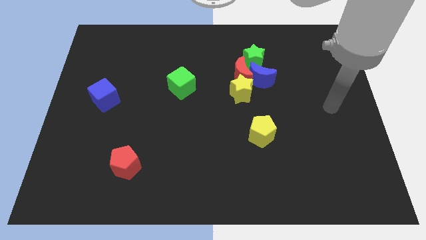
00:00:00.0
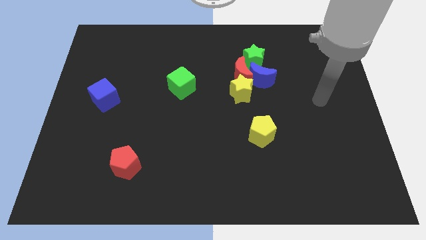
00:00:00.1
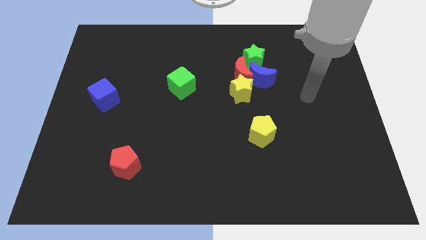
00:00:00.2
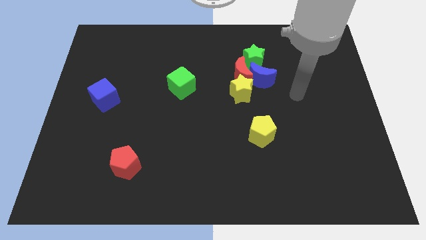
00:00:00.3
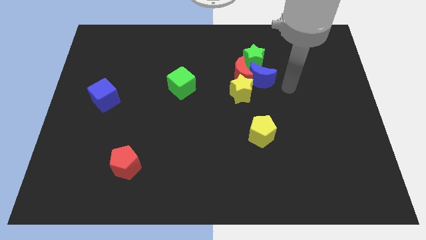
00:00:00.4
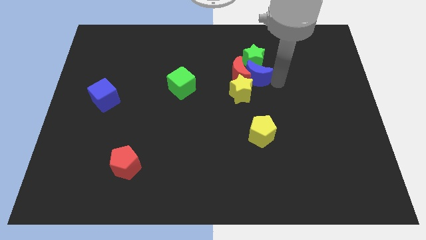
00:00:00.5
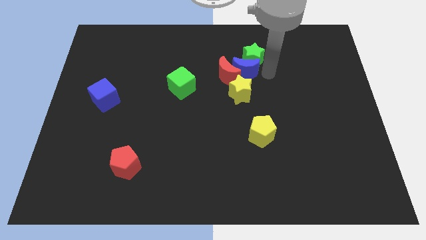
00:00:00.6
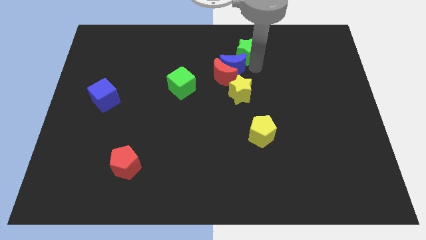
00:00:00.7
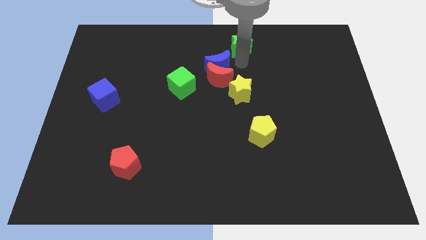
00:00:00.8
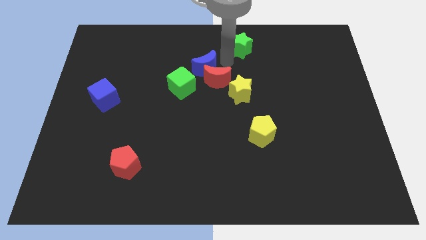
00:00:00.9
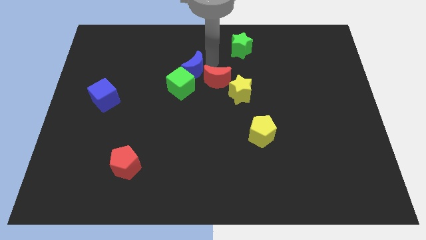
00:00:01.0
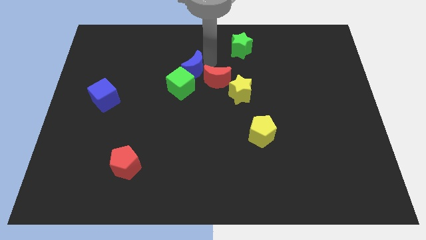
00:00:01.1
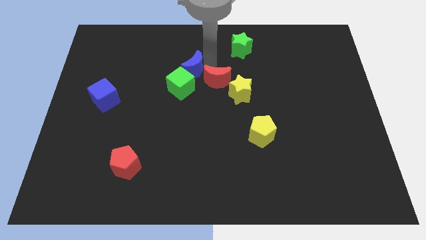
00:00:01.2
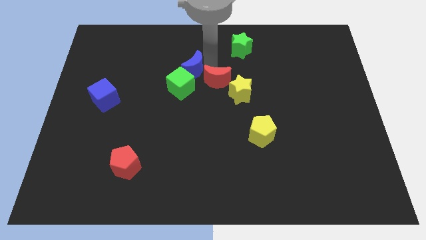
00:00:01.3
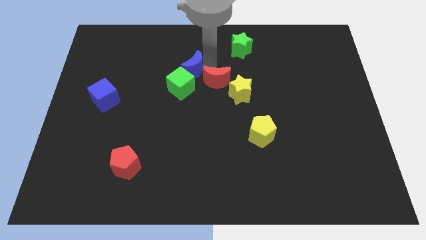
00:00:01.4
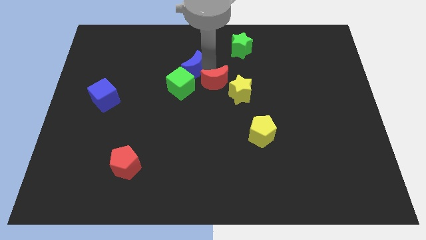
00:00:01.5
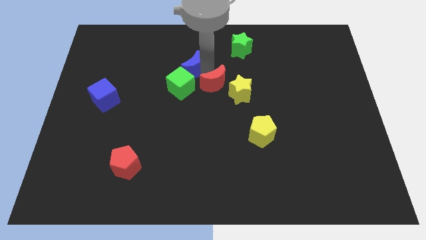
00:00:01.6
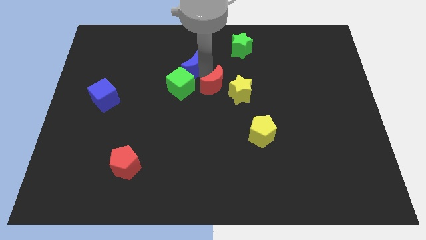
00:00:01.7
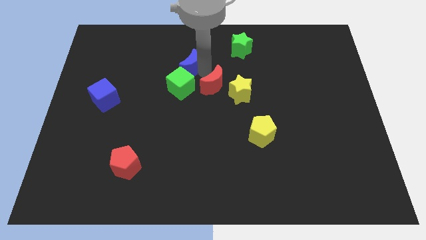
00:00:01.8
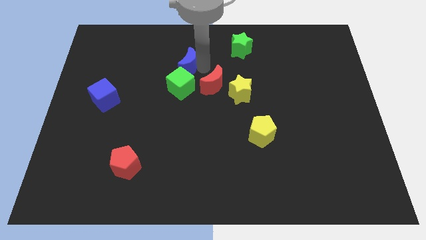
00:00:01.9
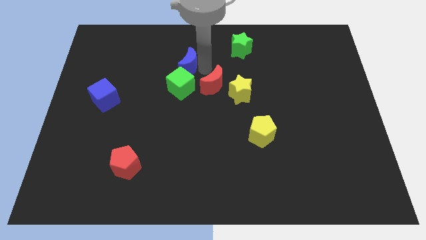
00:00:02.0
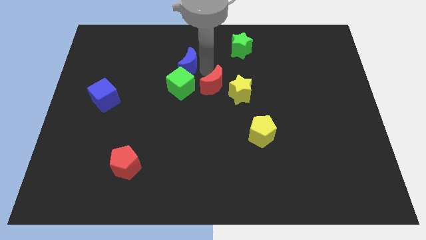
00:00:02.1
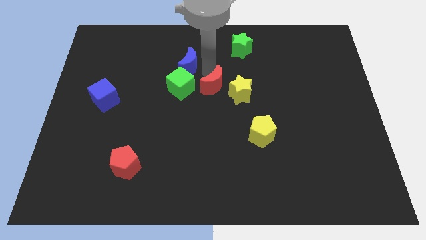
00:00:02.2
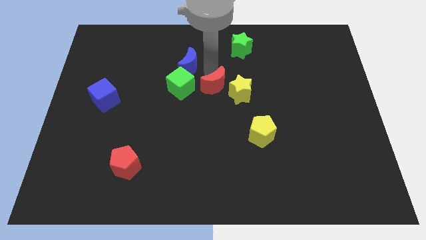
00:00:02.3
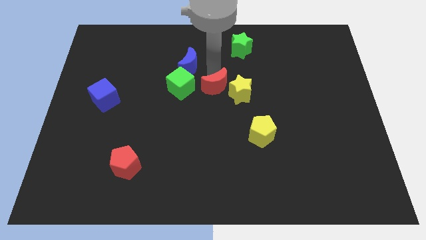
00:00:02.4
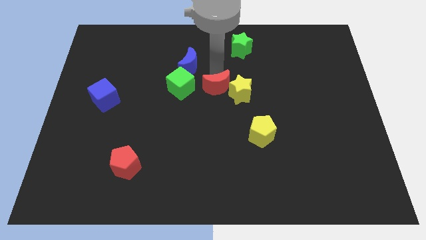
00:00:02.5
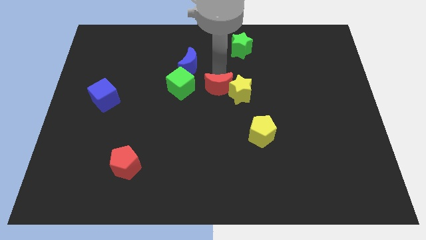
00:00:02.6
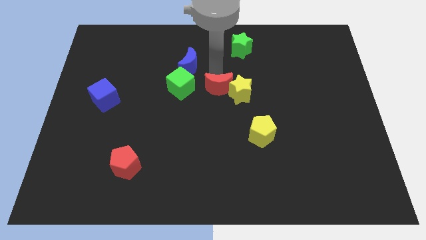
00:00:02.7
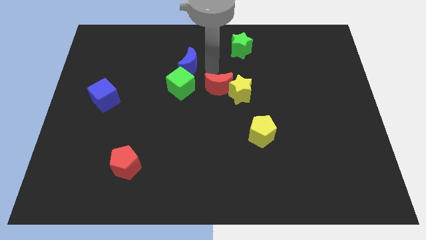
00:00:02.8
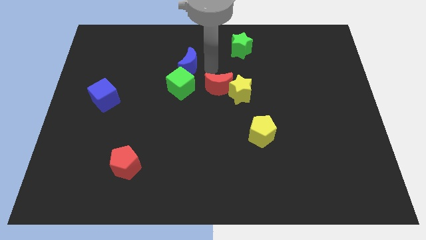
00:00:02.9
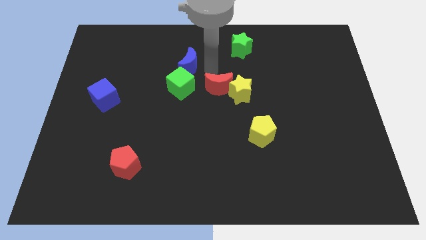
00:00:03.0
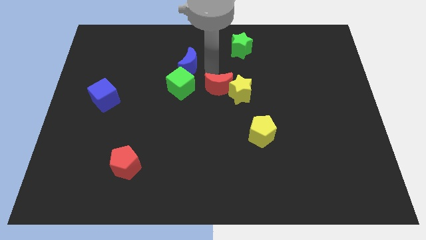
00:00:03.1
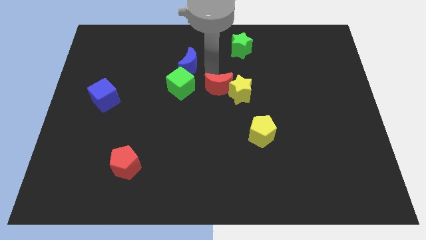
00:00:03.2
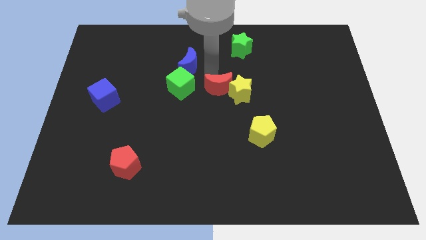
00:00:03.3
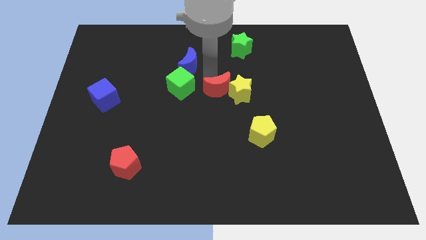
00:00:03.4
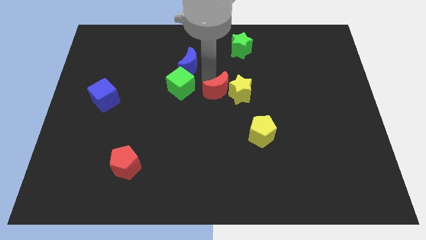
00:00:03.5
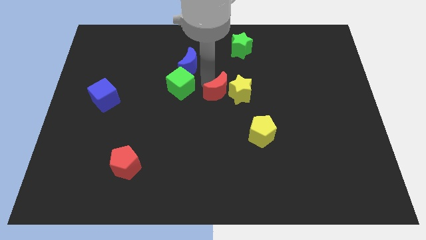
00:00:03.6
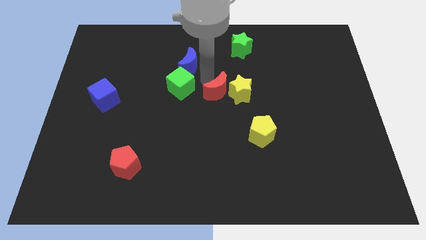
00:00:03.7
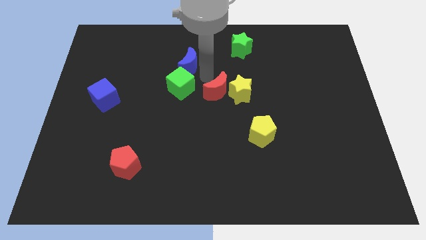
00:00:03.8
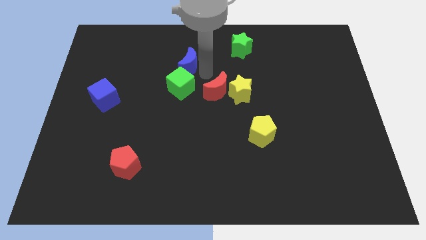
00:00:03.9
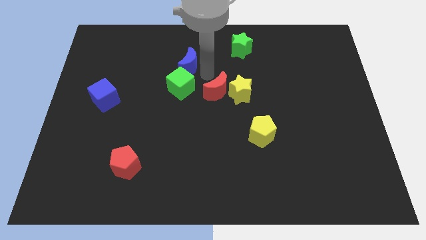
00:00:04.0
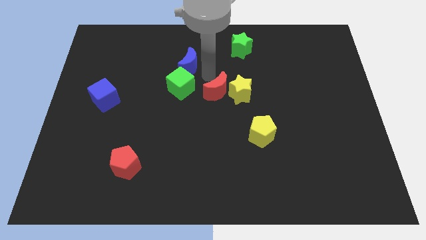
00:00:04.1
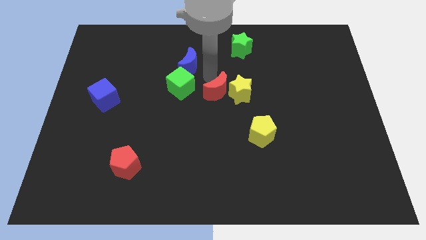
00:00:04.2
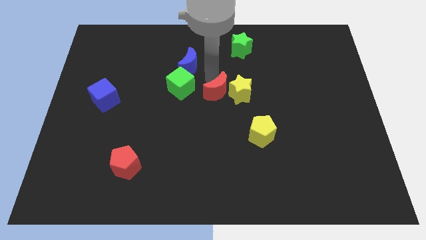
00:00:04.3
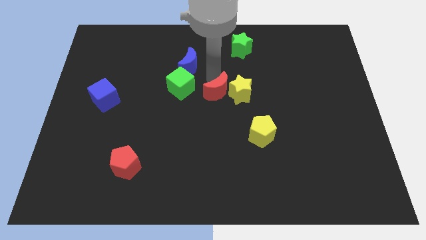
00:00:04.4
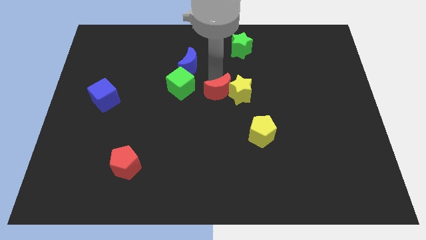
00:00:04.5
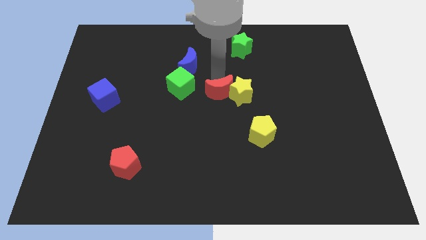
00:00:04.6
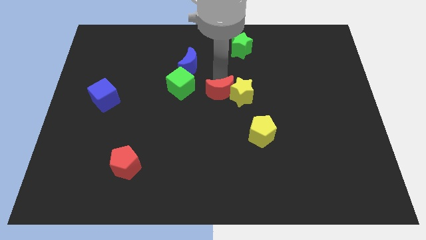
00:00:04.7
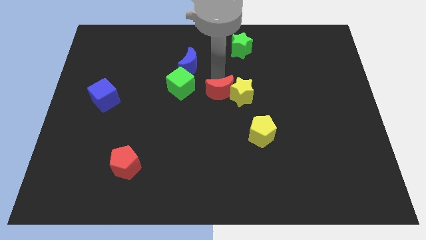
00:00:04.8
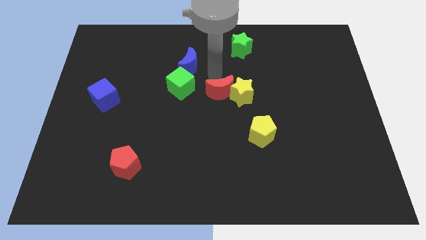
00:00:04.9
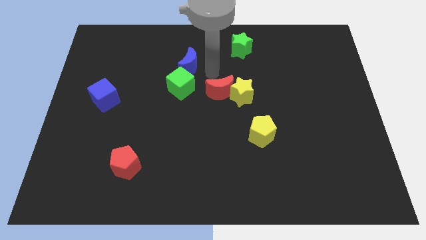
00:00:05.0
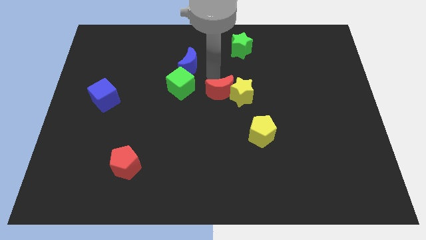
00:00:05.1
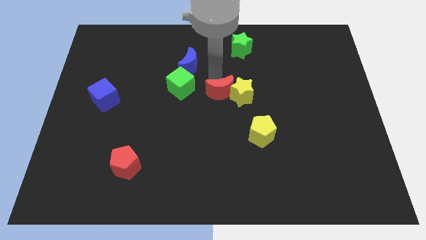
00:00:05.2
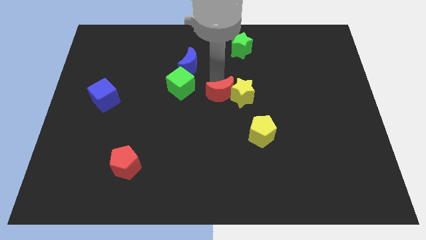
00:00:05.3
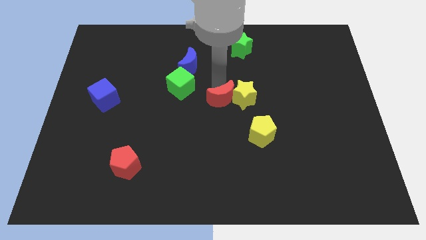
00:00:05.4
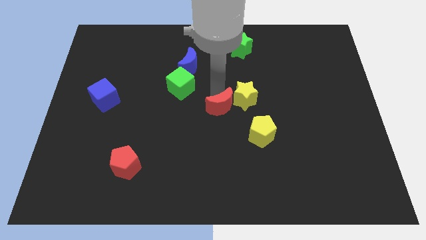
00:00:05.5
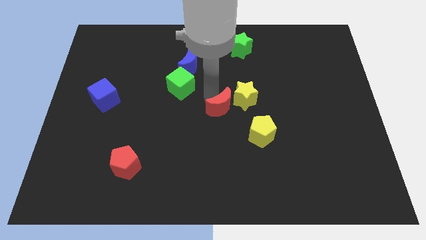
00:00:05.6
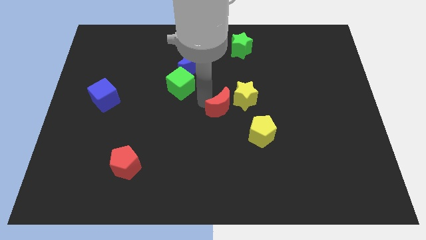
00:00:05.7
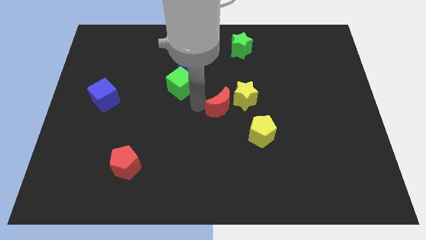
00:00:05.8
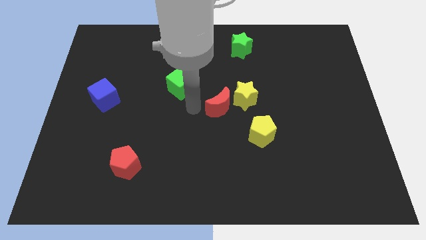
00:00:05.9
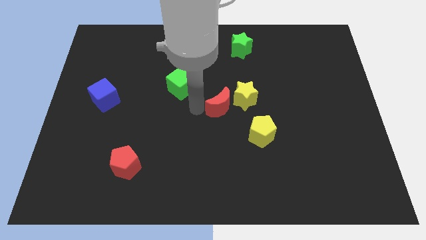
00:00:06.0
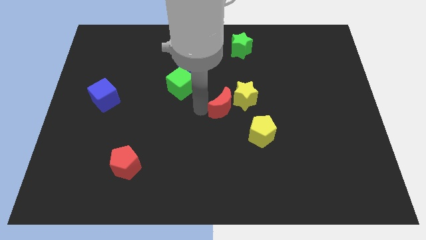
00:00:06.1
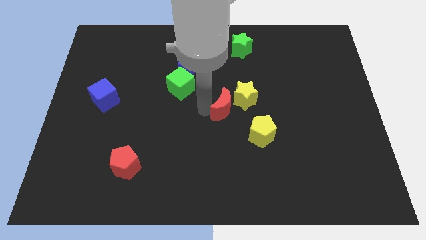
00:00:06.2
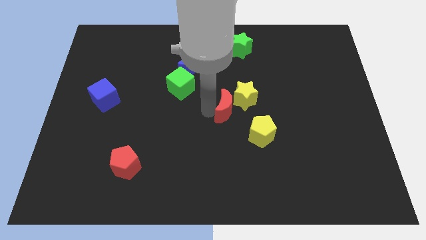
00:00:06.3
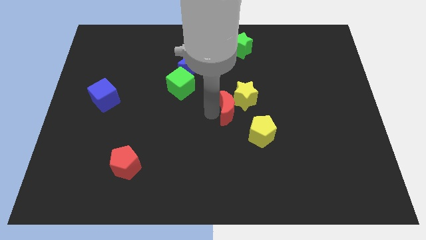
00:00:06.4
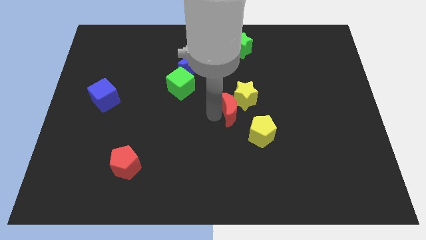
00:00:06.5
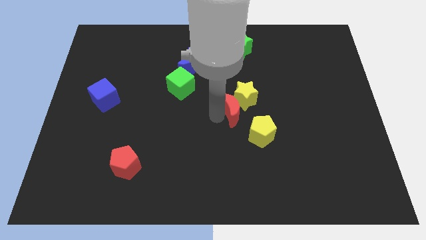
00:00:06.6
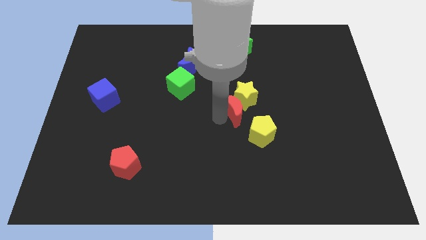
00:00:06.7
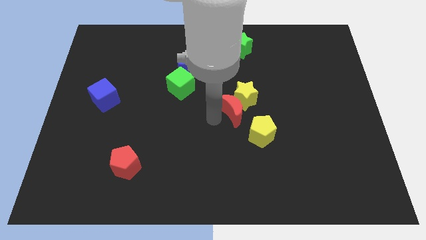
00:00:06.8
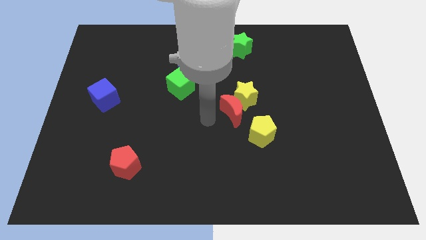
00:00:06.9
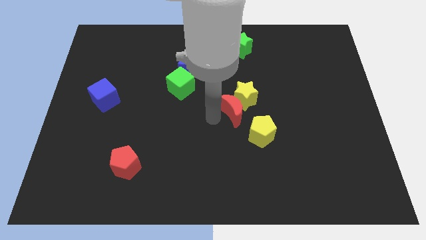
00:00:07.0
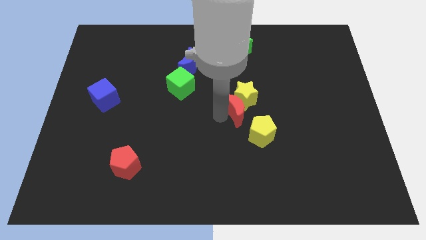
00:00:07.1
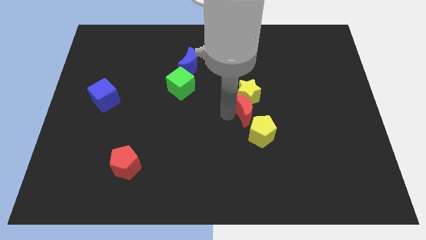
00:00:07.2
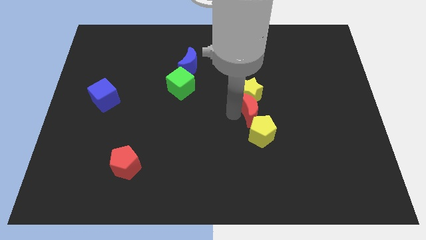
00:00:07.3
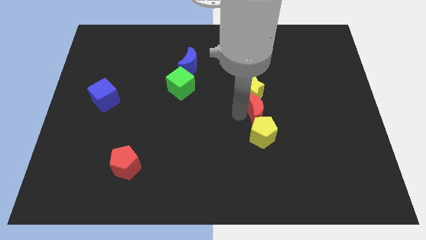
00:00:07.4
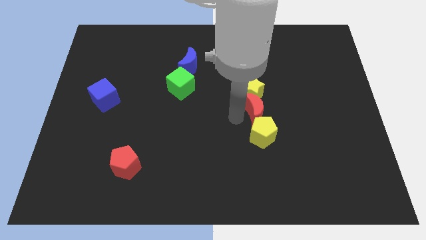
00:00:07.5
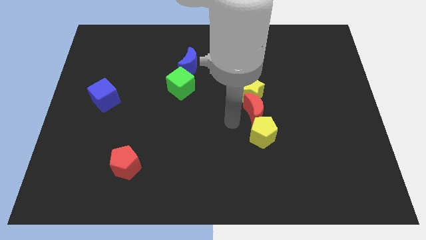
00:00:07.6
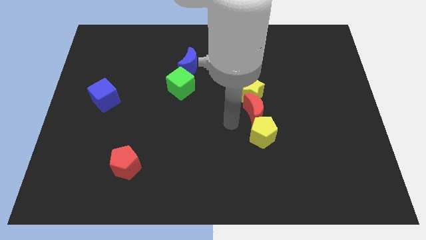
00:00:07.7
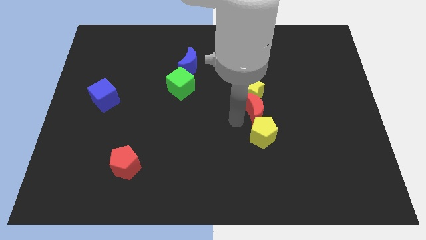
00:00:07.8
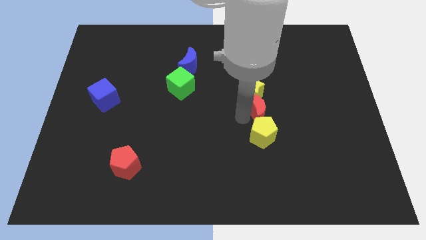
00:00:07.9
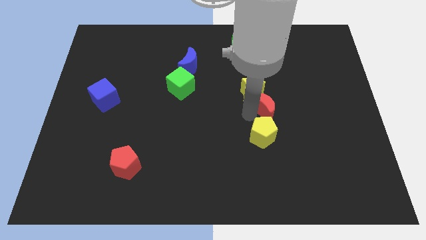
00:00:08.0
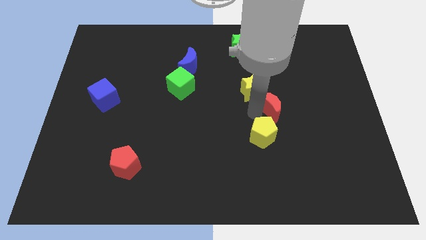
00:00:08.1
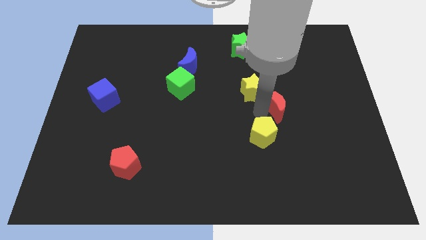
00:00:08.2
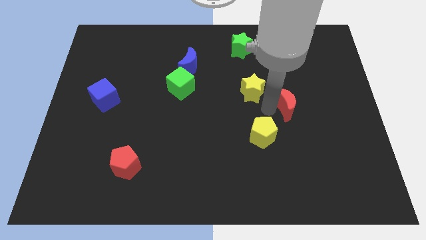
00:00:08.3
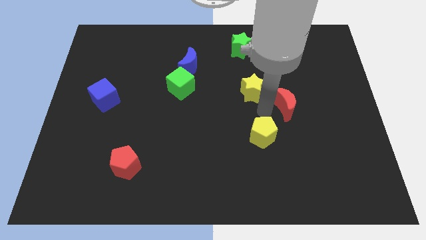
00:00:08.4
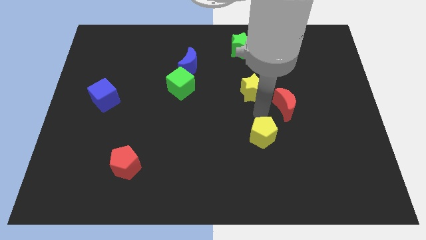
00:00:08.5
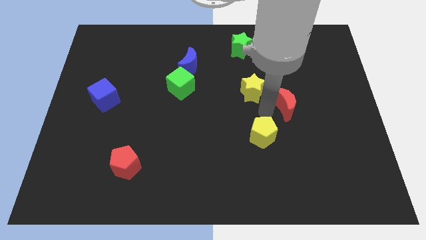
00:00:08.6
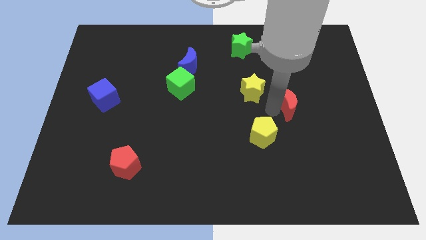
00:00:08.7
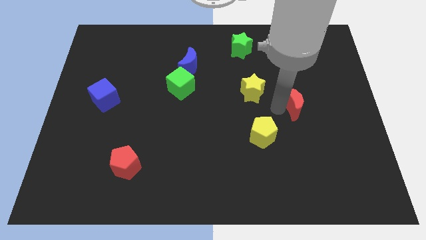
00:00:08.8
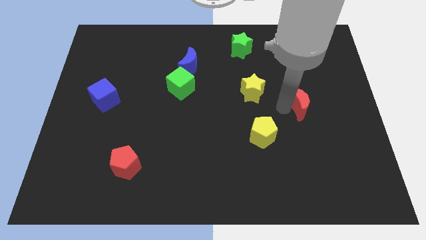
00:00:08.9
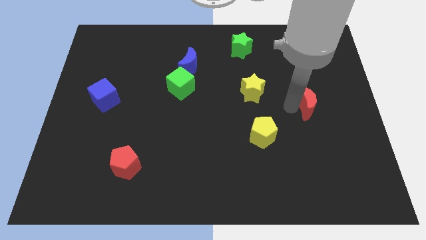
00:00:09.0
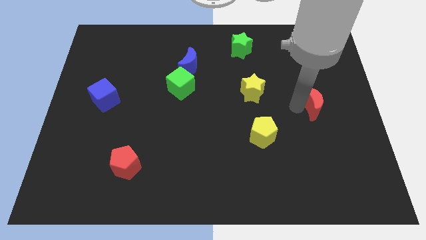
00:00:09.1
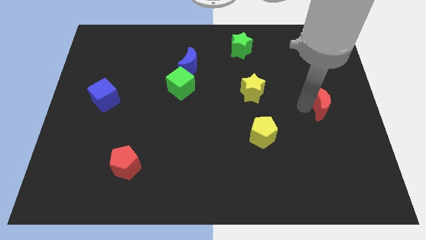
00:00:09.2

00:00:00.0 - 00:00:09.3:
move the red moon to the right side
